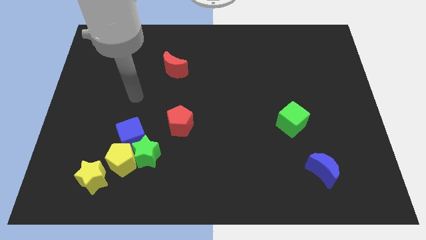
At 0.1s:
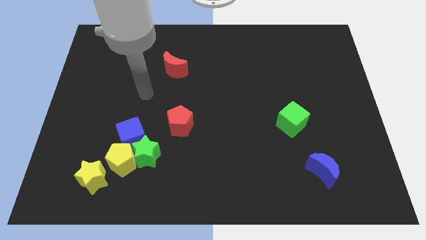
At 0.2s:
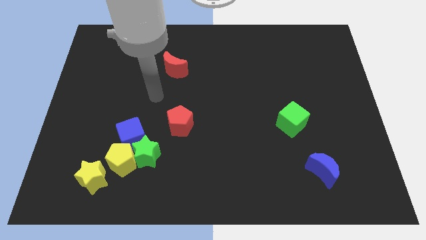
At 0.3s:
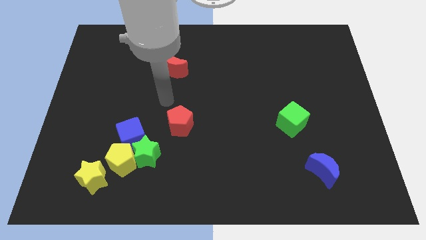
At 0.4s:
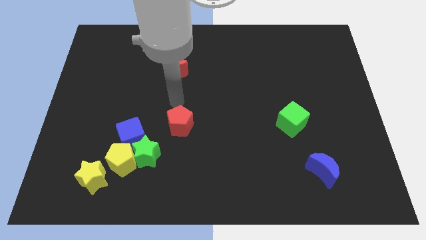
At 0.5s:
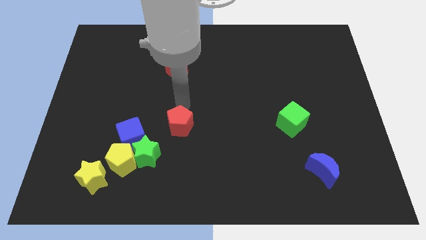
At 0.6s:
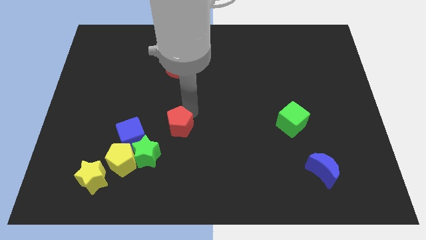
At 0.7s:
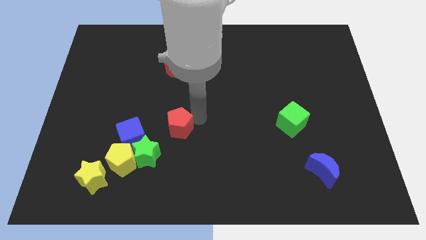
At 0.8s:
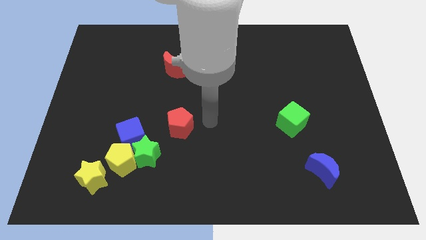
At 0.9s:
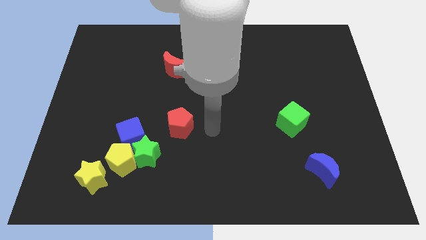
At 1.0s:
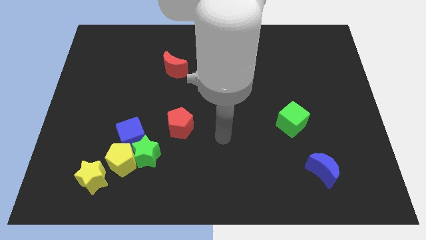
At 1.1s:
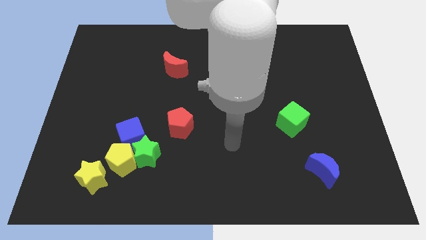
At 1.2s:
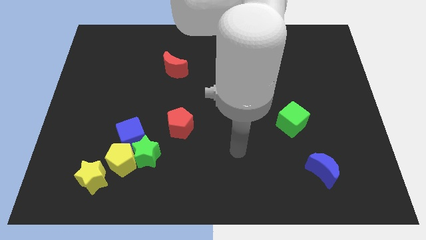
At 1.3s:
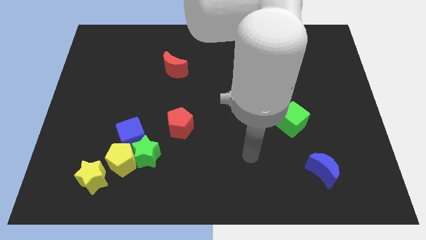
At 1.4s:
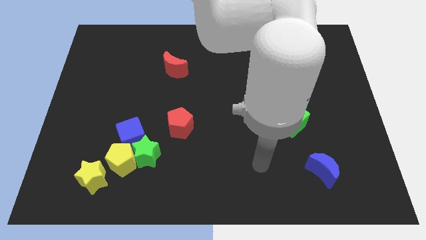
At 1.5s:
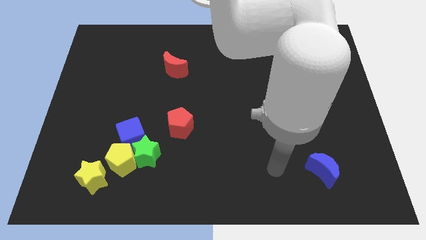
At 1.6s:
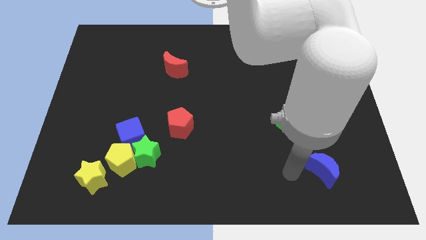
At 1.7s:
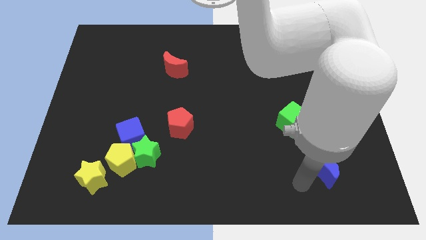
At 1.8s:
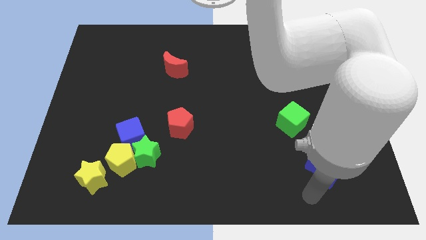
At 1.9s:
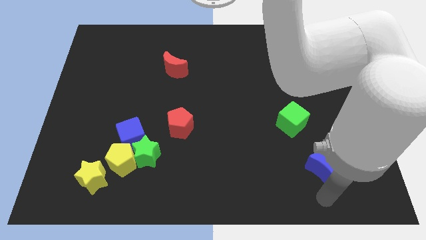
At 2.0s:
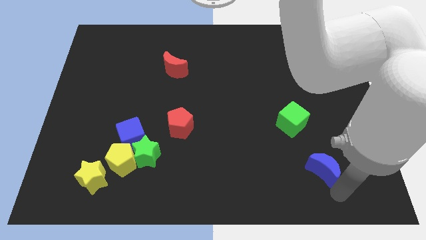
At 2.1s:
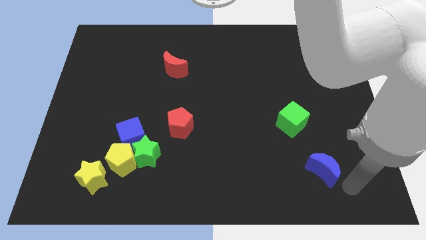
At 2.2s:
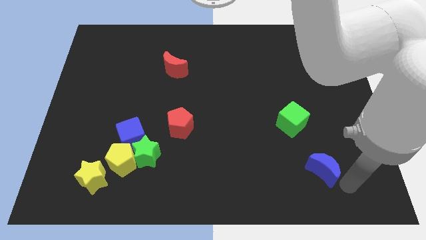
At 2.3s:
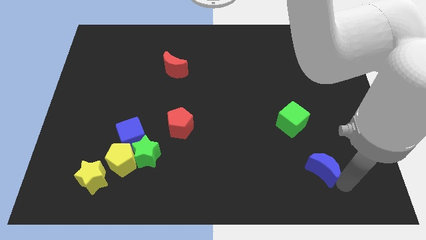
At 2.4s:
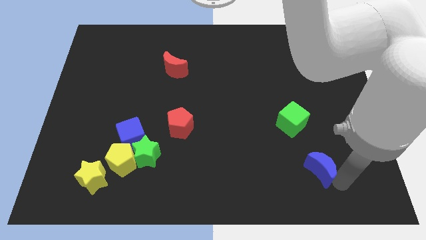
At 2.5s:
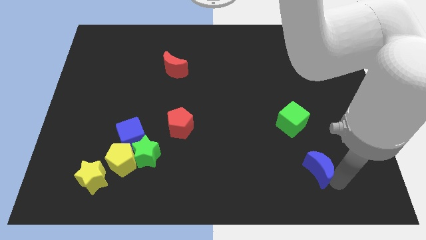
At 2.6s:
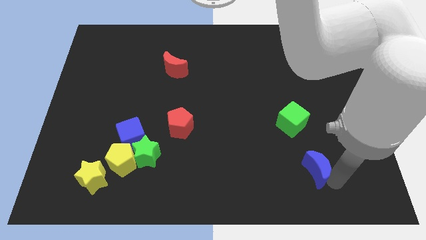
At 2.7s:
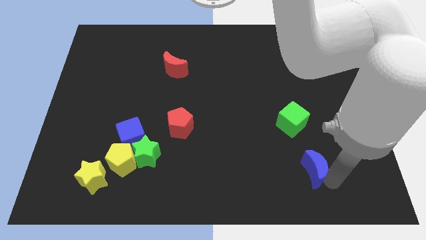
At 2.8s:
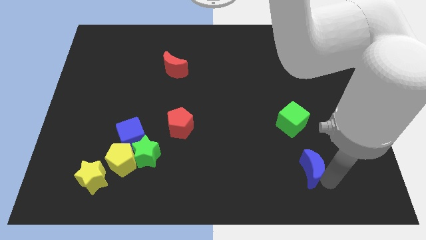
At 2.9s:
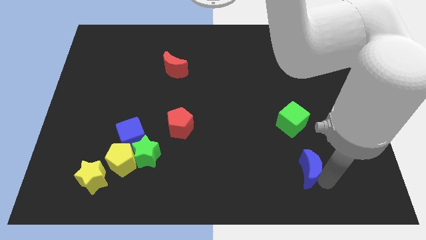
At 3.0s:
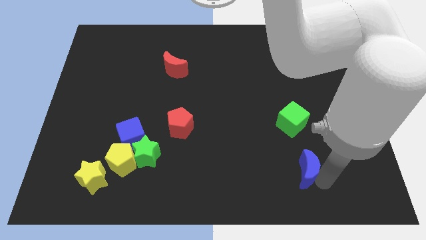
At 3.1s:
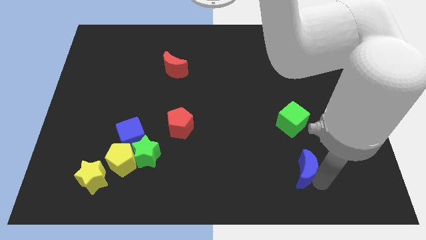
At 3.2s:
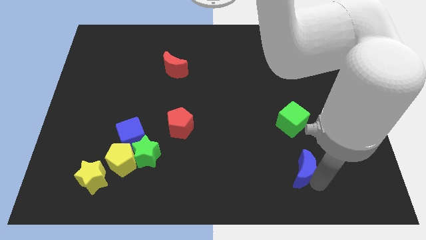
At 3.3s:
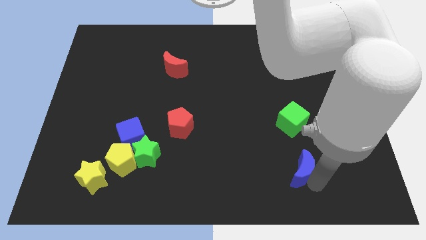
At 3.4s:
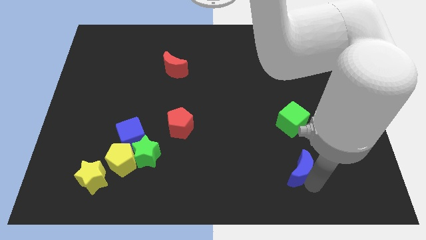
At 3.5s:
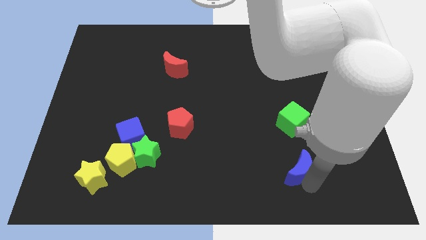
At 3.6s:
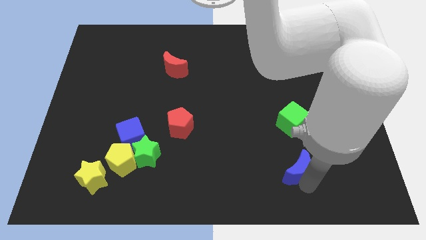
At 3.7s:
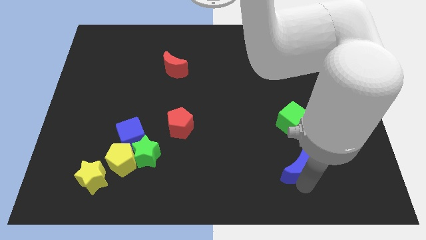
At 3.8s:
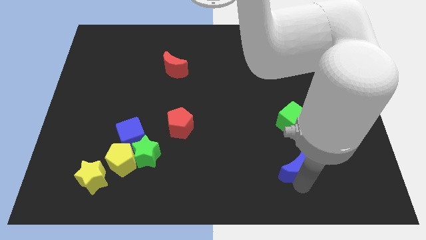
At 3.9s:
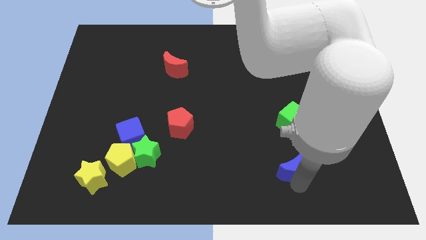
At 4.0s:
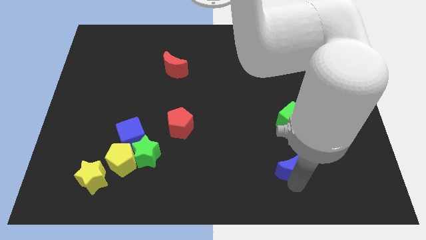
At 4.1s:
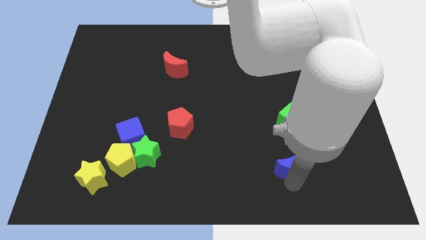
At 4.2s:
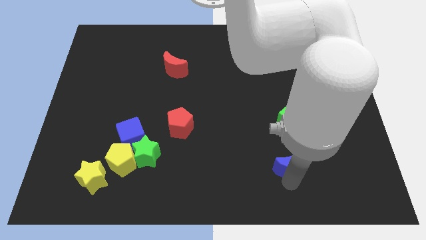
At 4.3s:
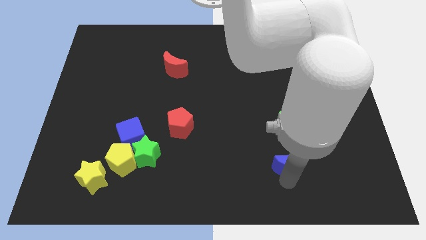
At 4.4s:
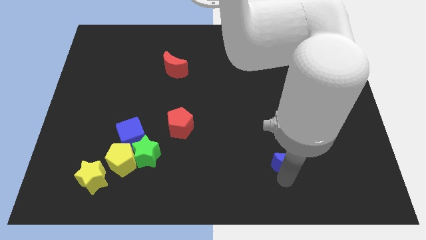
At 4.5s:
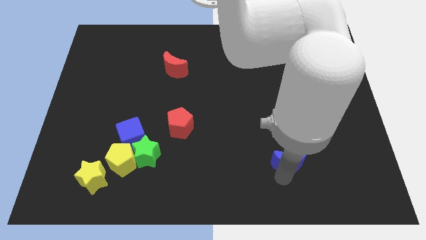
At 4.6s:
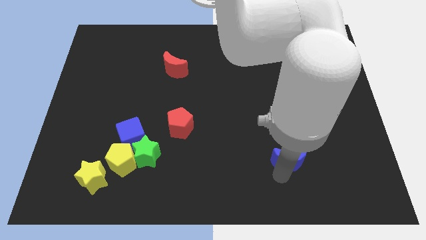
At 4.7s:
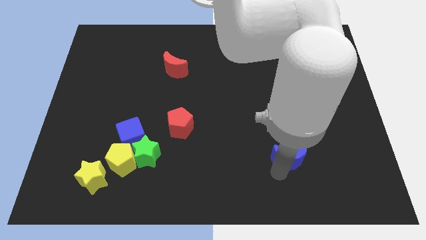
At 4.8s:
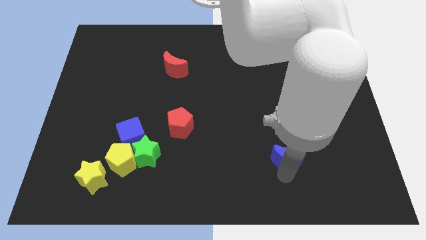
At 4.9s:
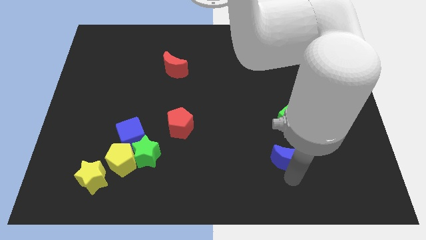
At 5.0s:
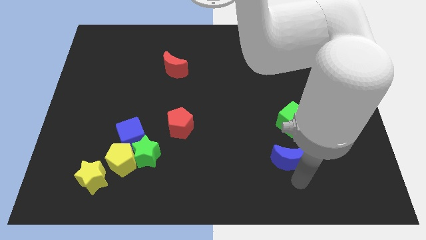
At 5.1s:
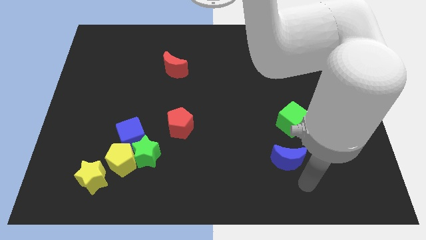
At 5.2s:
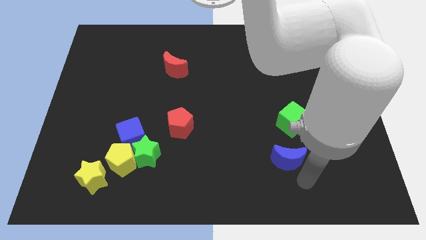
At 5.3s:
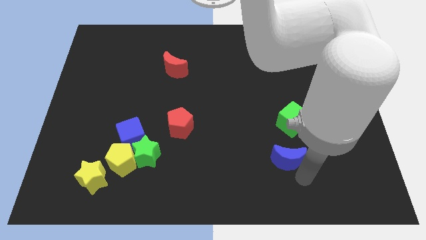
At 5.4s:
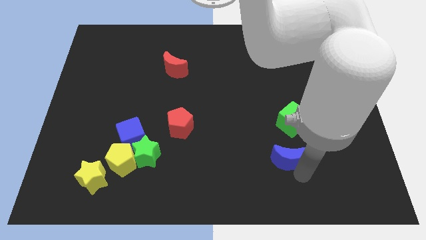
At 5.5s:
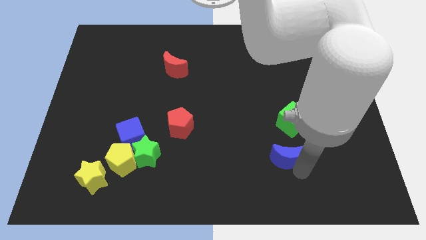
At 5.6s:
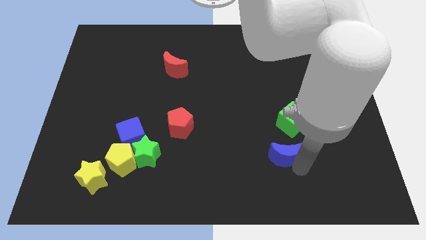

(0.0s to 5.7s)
slide the blue moon to the bottom left of the green cube
